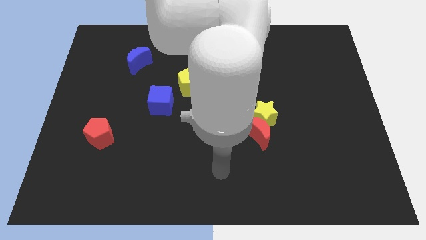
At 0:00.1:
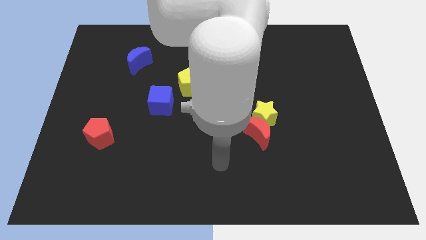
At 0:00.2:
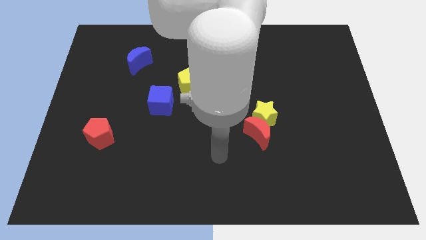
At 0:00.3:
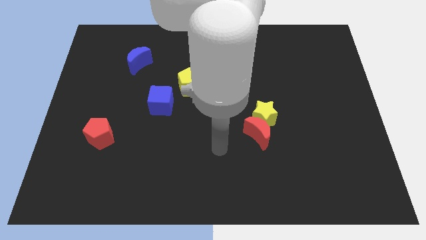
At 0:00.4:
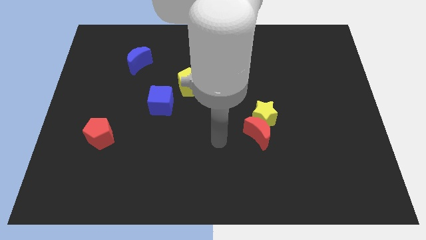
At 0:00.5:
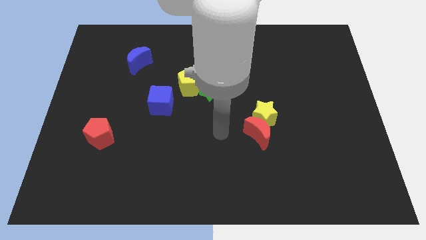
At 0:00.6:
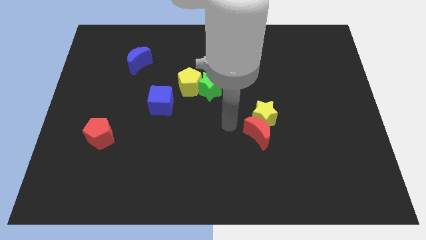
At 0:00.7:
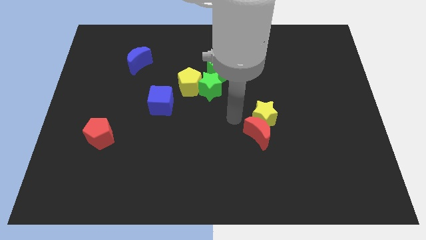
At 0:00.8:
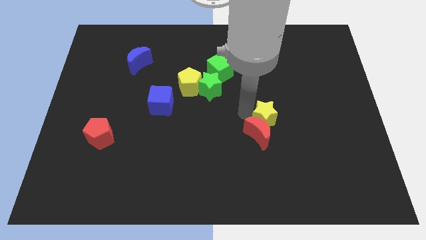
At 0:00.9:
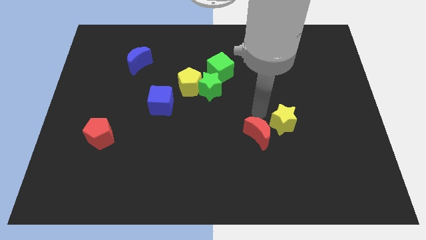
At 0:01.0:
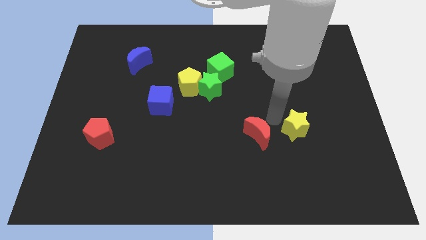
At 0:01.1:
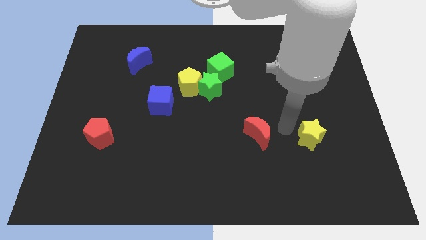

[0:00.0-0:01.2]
move the red moon away from the yellow star

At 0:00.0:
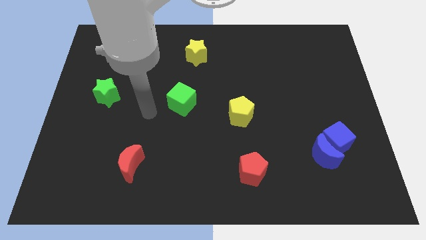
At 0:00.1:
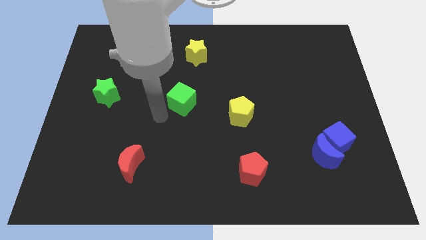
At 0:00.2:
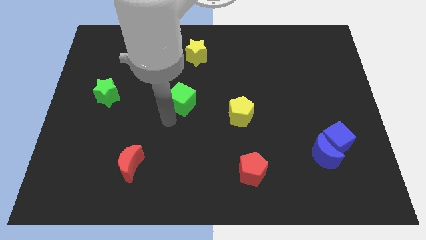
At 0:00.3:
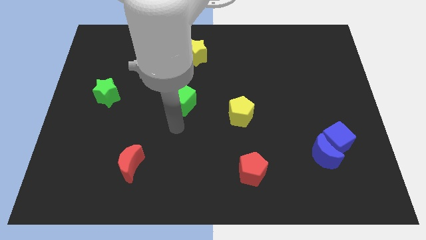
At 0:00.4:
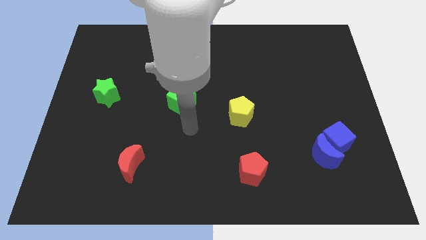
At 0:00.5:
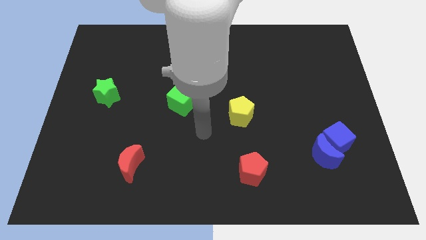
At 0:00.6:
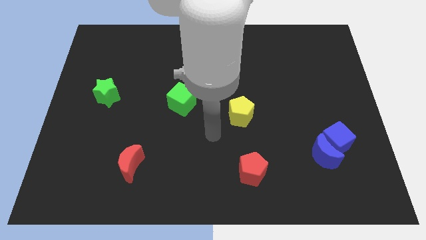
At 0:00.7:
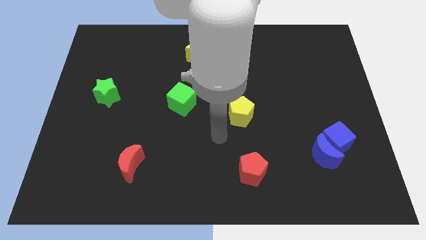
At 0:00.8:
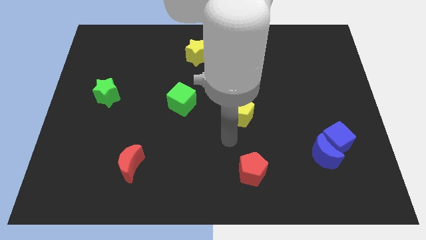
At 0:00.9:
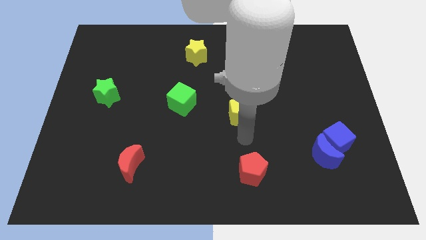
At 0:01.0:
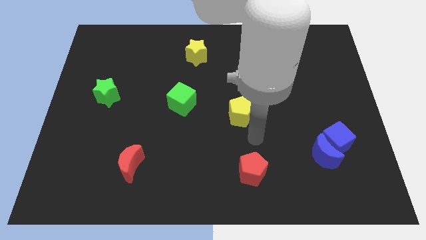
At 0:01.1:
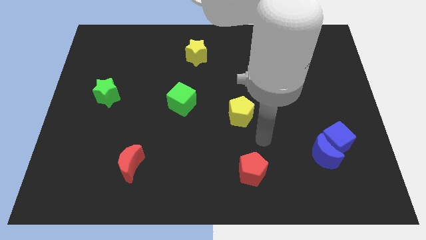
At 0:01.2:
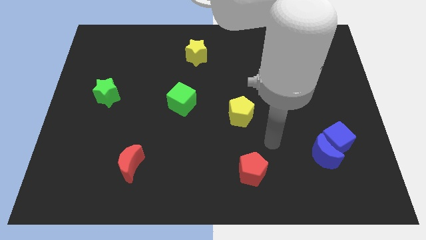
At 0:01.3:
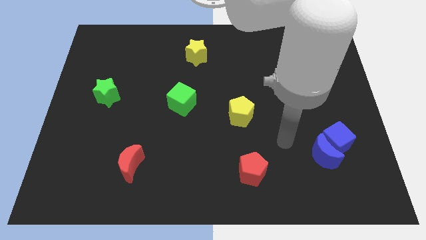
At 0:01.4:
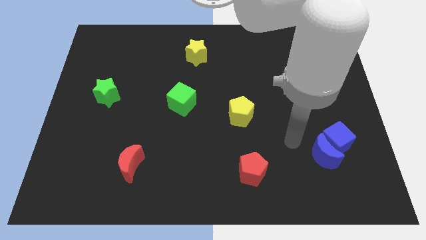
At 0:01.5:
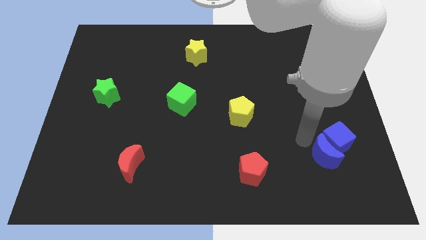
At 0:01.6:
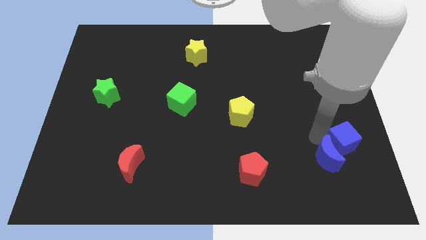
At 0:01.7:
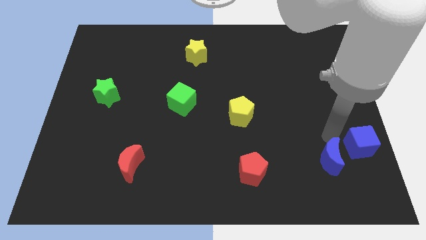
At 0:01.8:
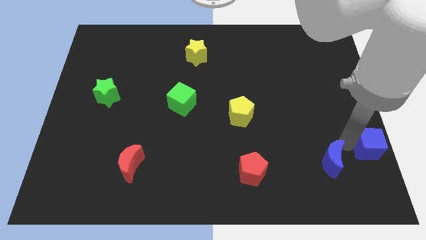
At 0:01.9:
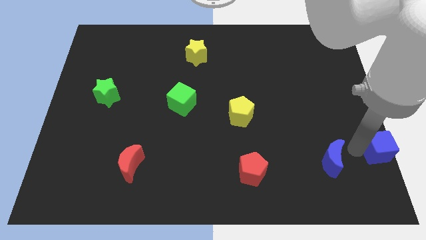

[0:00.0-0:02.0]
separate the blue moon from the blue cube

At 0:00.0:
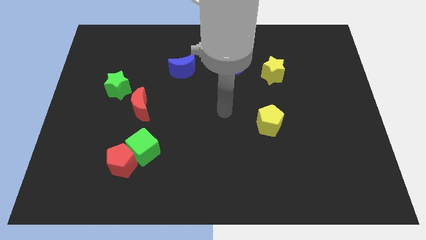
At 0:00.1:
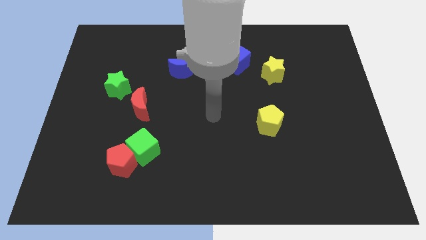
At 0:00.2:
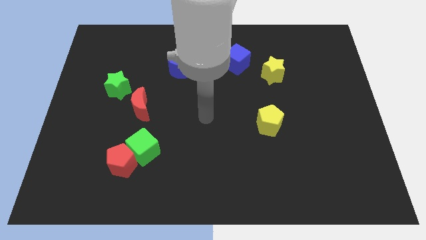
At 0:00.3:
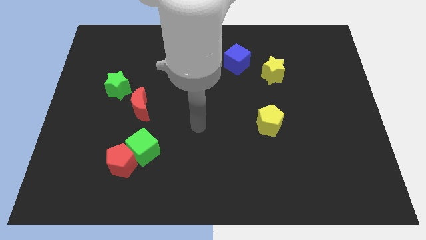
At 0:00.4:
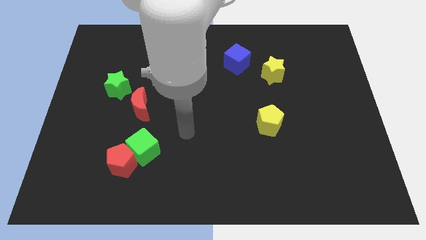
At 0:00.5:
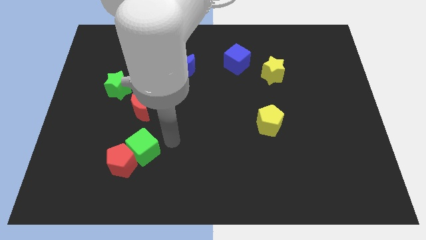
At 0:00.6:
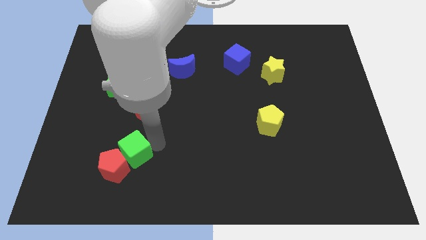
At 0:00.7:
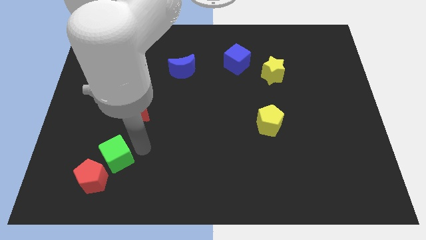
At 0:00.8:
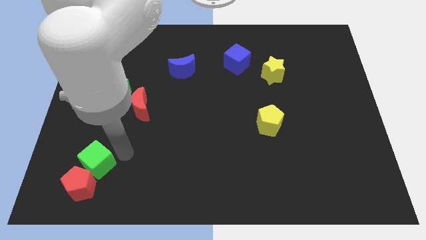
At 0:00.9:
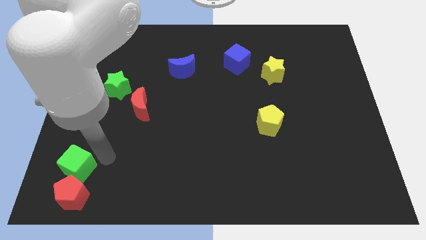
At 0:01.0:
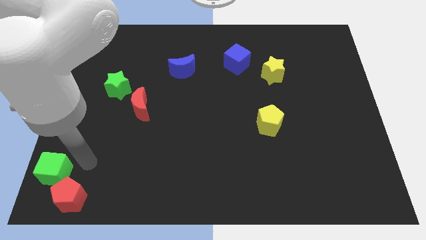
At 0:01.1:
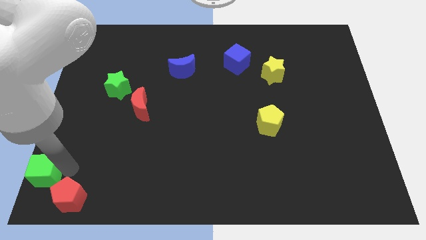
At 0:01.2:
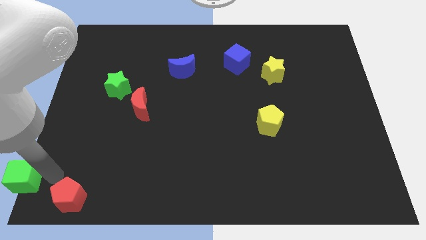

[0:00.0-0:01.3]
separate the red pentagon from the green cube

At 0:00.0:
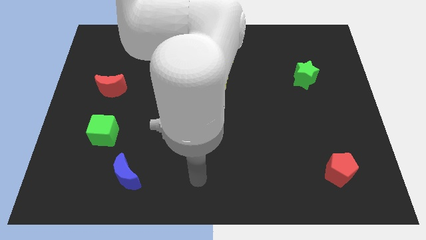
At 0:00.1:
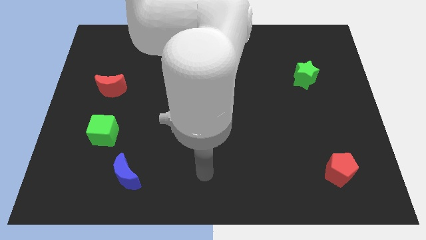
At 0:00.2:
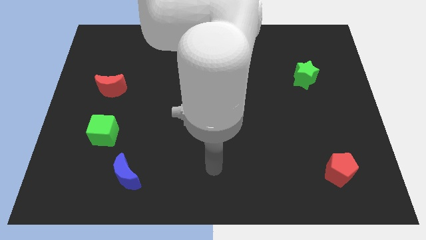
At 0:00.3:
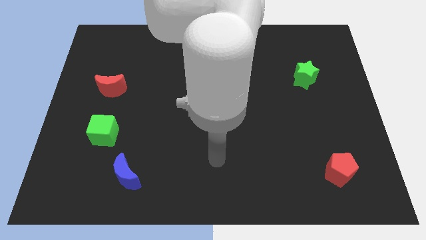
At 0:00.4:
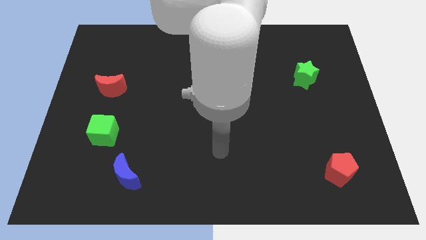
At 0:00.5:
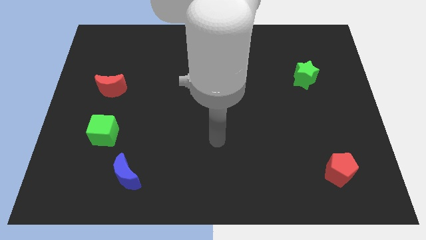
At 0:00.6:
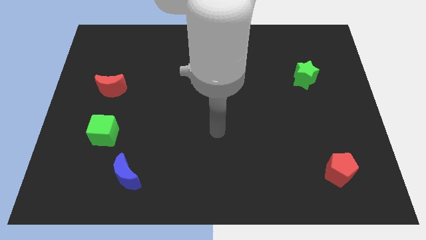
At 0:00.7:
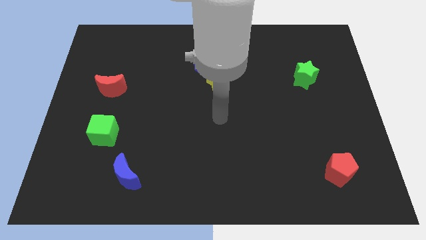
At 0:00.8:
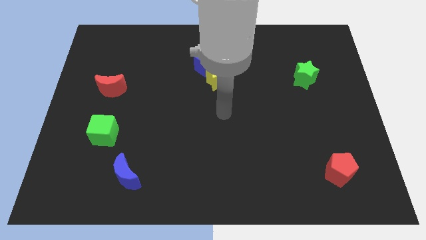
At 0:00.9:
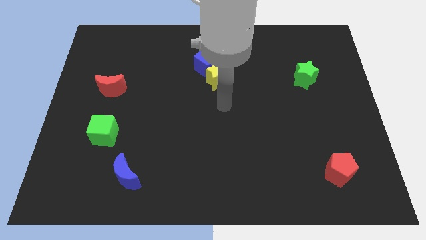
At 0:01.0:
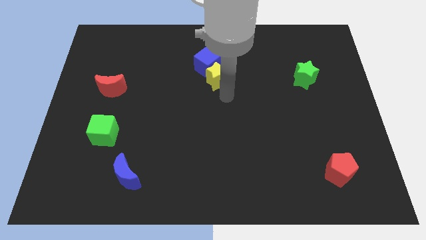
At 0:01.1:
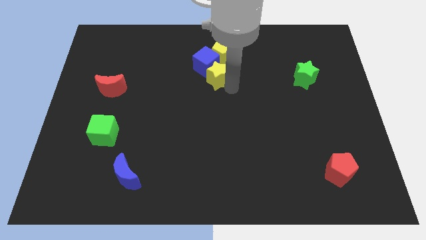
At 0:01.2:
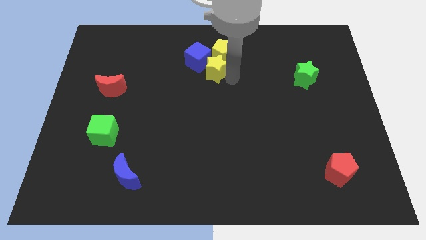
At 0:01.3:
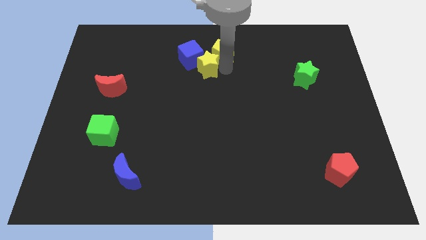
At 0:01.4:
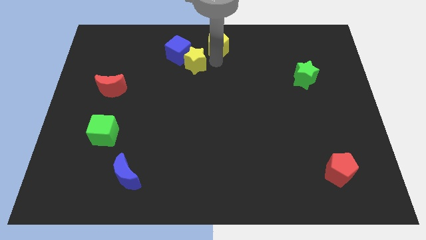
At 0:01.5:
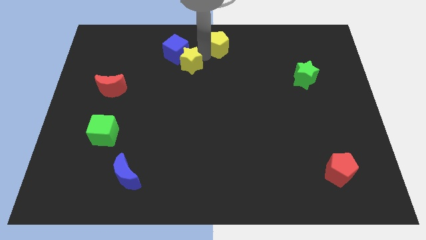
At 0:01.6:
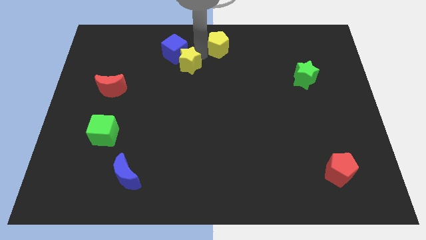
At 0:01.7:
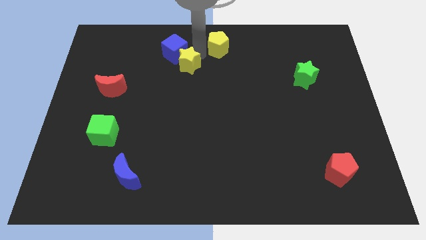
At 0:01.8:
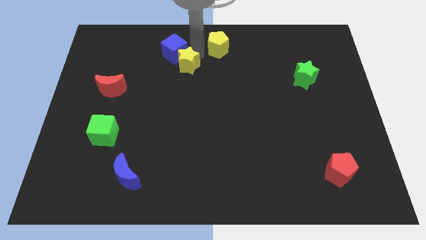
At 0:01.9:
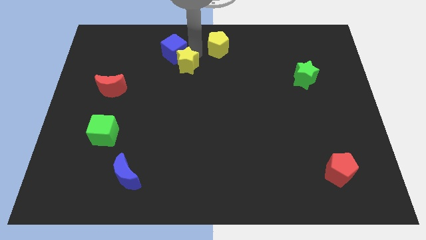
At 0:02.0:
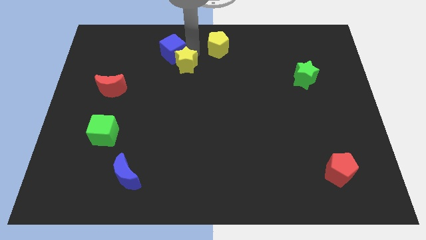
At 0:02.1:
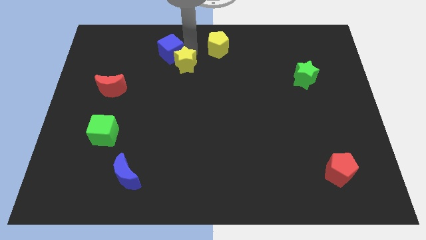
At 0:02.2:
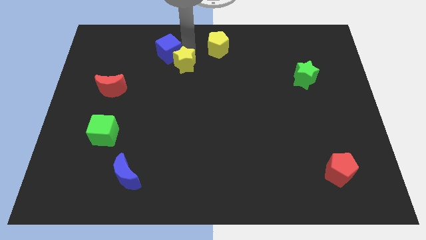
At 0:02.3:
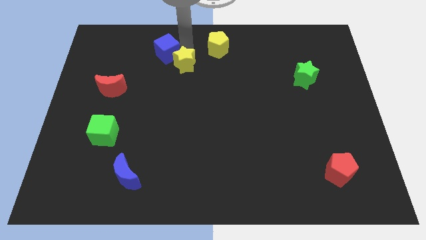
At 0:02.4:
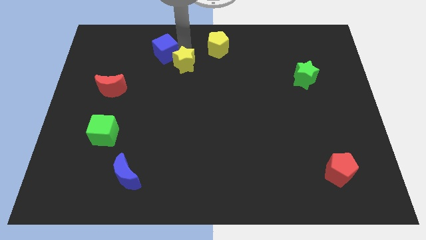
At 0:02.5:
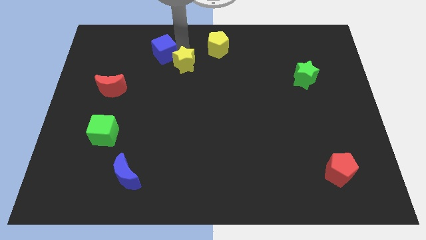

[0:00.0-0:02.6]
move the blue cube away from the yellow pentagon and yellow star

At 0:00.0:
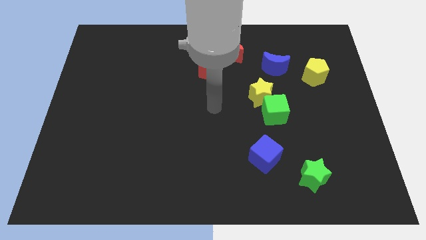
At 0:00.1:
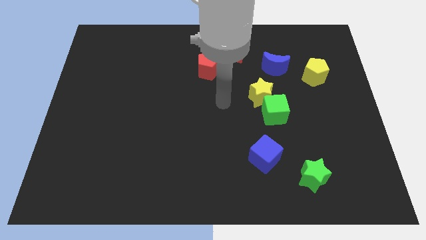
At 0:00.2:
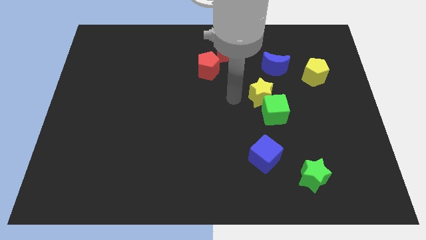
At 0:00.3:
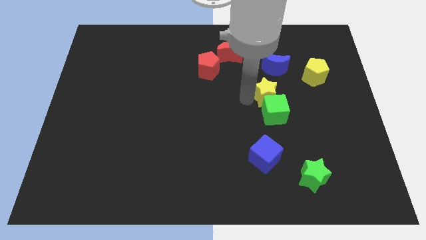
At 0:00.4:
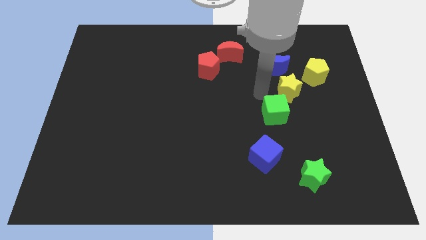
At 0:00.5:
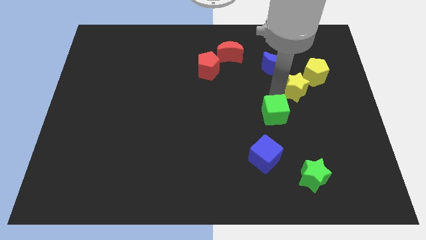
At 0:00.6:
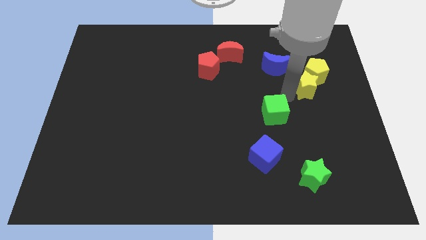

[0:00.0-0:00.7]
pull the green cube apart from the yellow star

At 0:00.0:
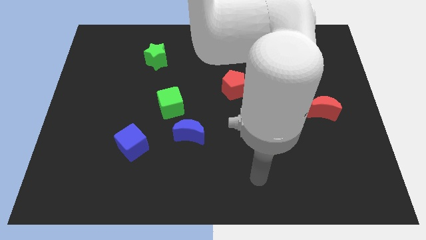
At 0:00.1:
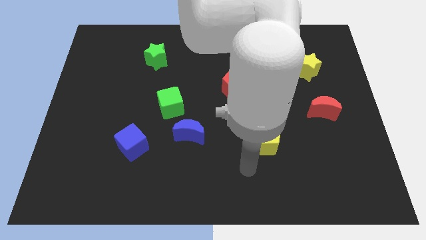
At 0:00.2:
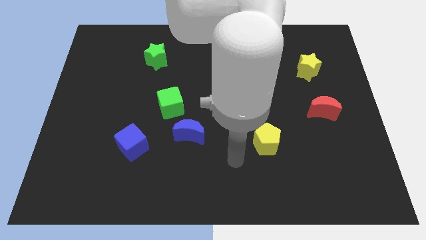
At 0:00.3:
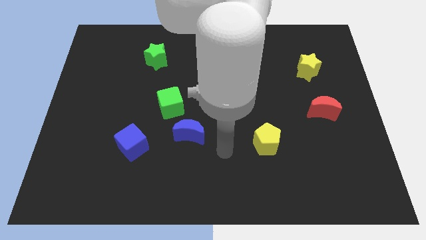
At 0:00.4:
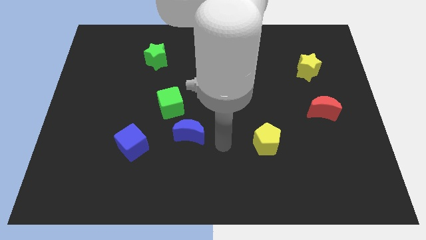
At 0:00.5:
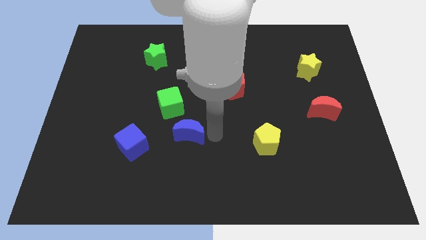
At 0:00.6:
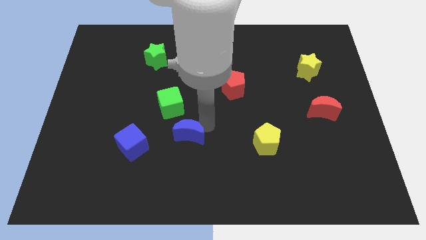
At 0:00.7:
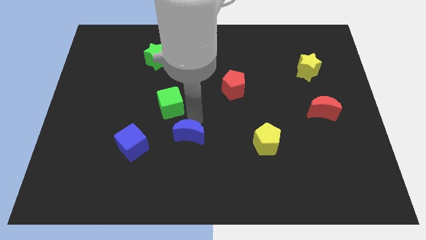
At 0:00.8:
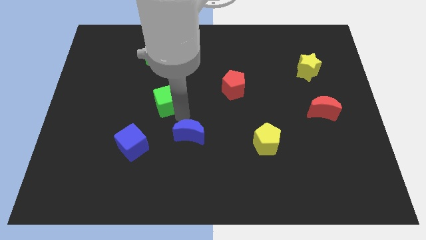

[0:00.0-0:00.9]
separate the blue moon from the green cube

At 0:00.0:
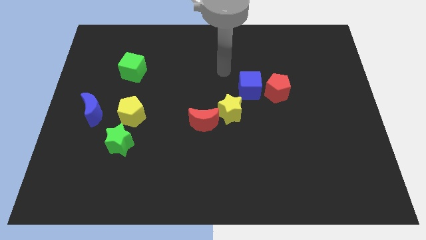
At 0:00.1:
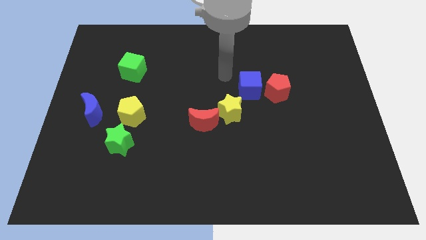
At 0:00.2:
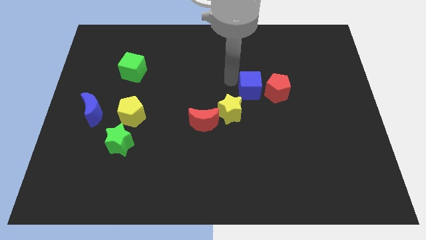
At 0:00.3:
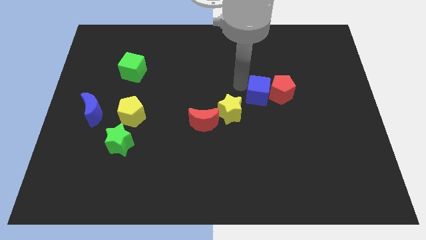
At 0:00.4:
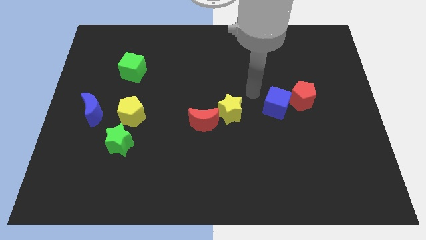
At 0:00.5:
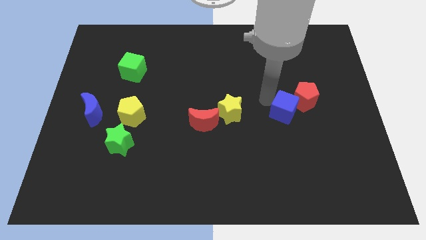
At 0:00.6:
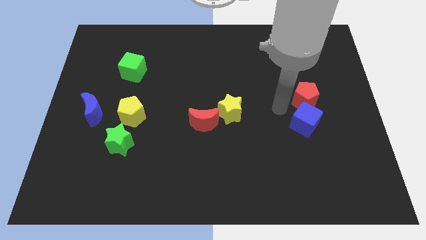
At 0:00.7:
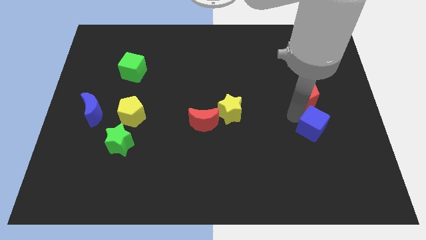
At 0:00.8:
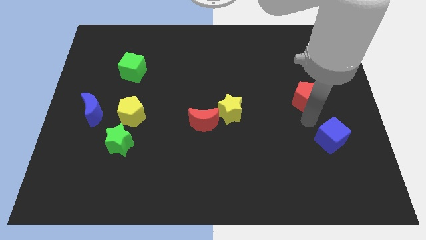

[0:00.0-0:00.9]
pull the red pentagon apart from the blue cube
